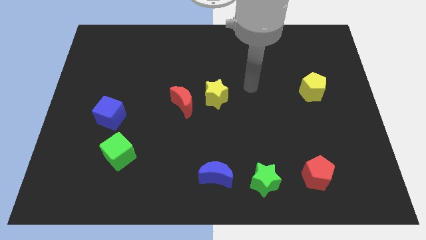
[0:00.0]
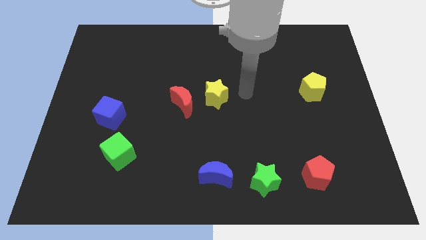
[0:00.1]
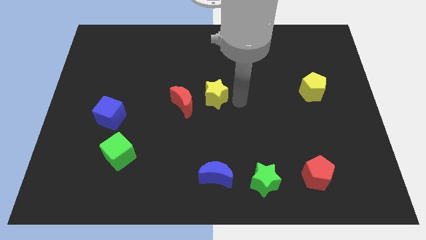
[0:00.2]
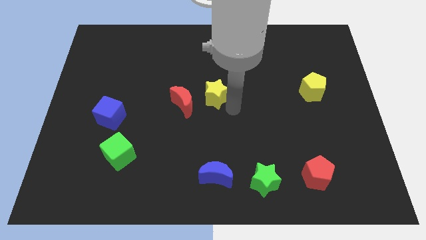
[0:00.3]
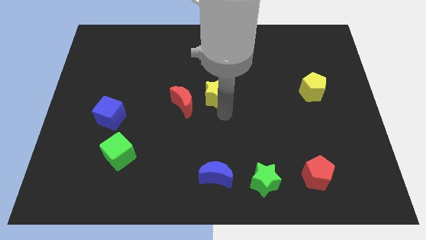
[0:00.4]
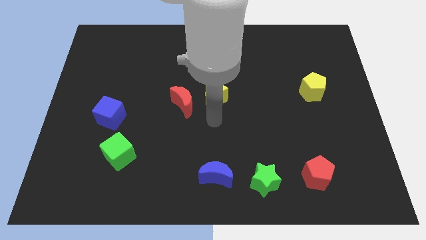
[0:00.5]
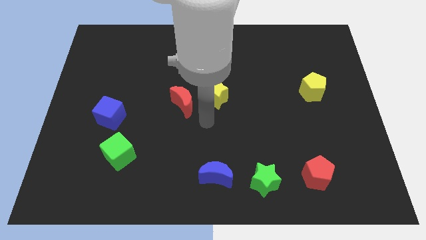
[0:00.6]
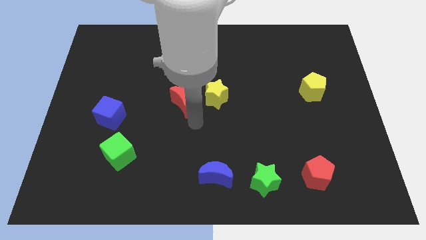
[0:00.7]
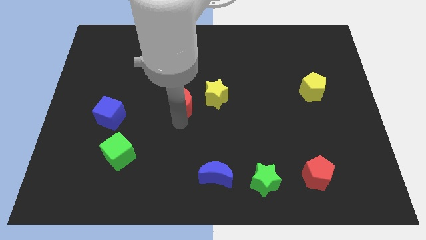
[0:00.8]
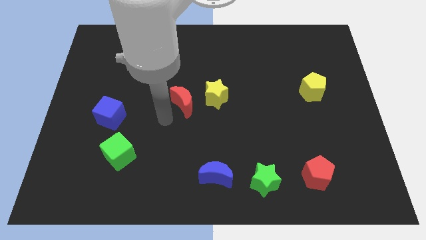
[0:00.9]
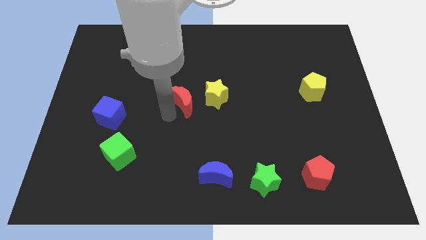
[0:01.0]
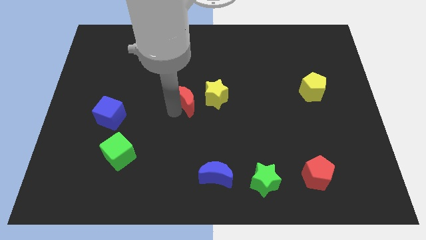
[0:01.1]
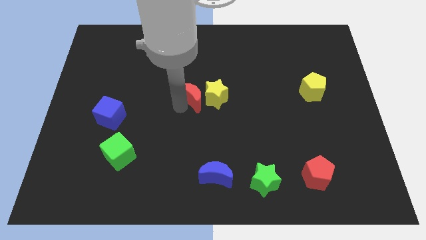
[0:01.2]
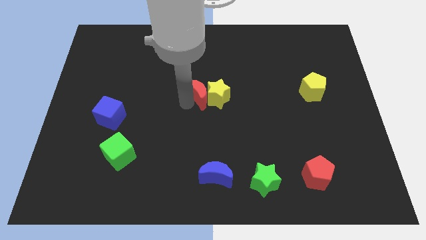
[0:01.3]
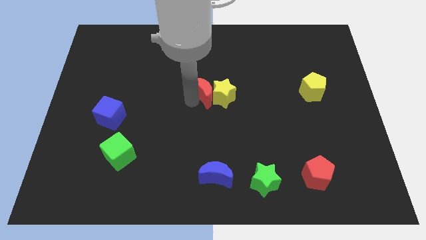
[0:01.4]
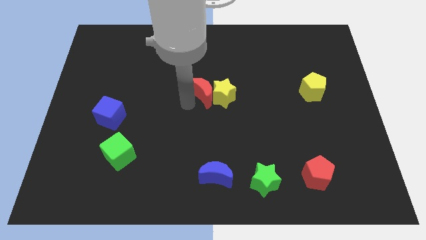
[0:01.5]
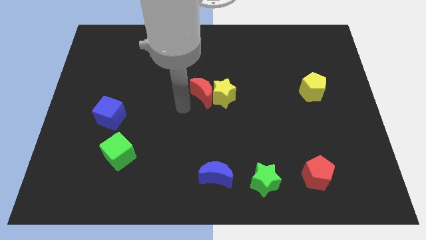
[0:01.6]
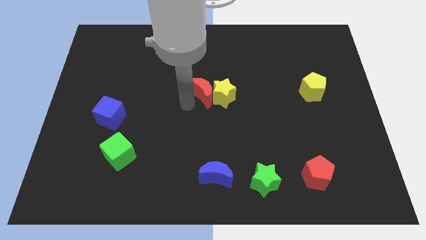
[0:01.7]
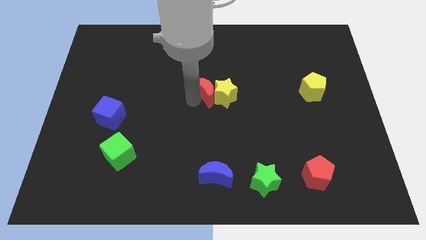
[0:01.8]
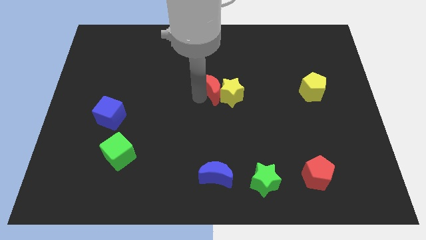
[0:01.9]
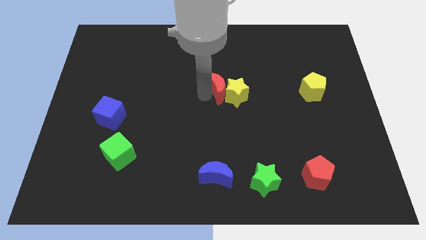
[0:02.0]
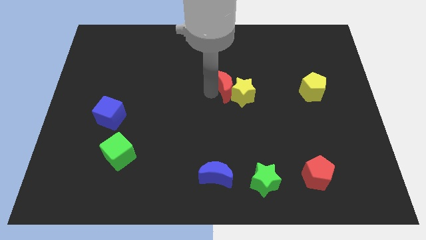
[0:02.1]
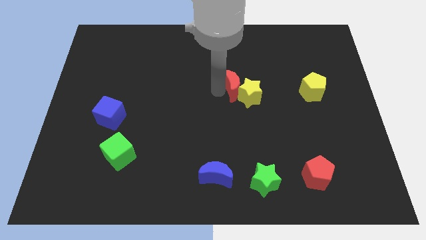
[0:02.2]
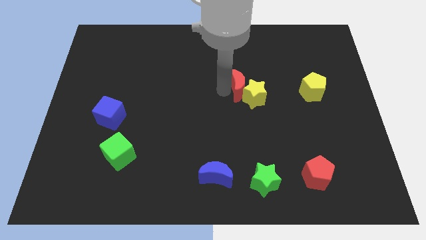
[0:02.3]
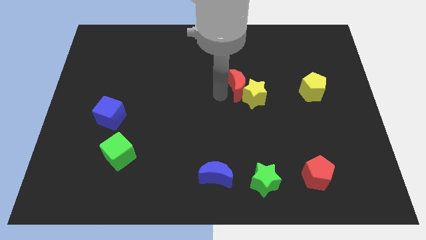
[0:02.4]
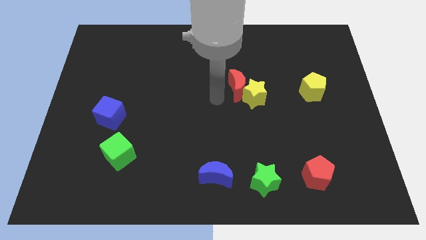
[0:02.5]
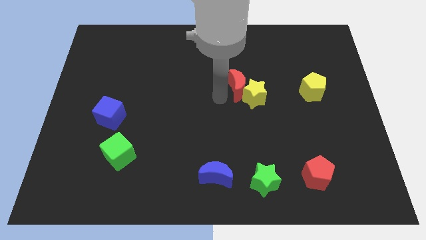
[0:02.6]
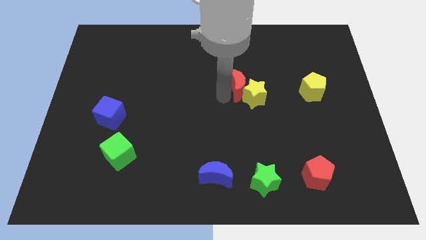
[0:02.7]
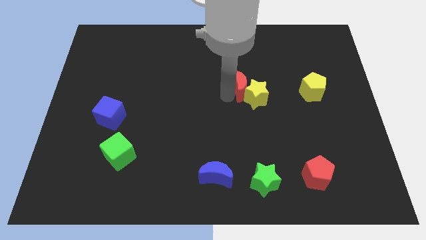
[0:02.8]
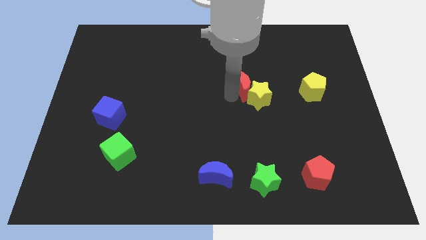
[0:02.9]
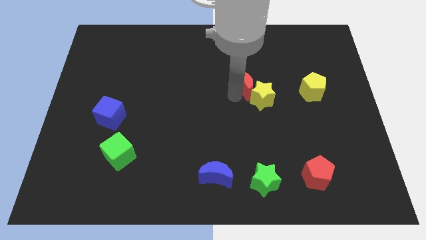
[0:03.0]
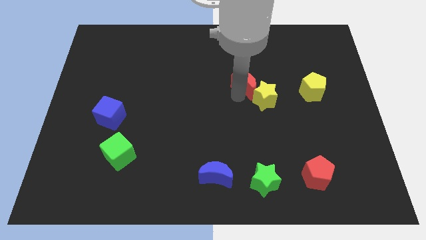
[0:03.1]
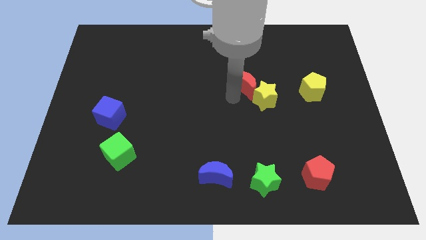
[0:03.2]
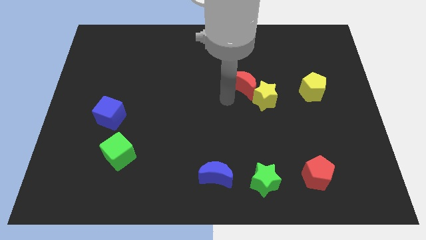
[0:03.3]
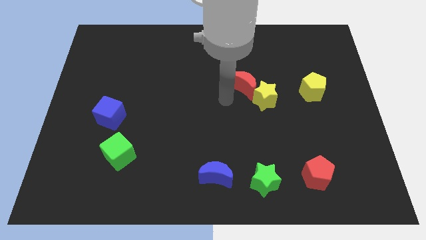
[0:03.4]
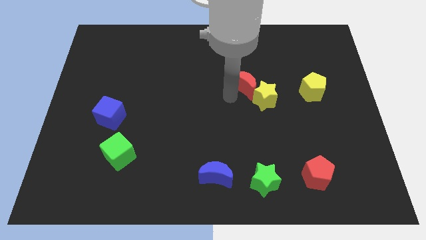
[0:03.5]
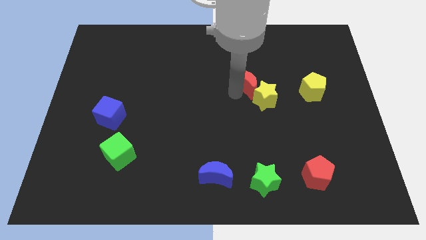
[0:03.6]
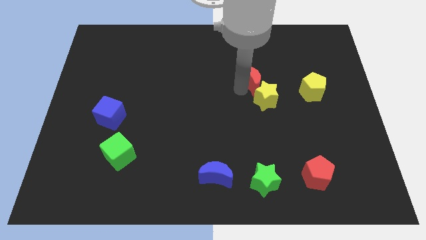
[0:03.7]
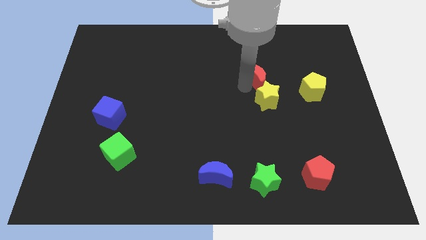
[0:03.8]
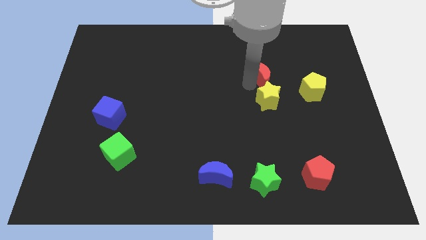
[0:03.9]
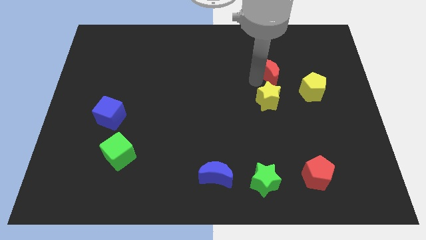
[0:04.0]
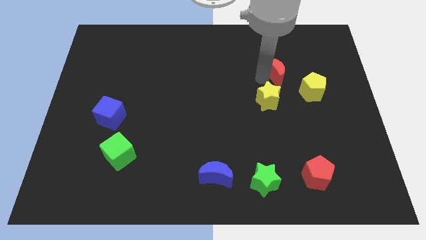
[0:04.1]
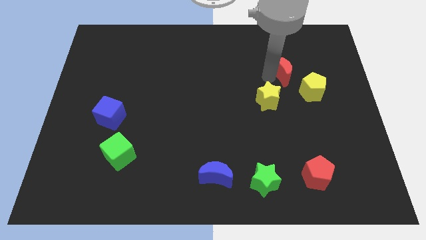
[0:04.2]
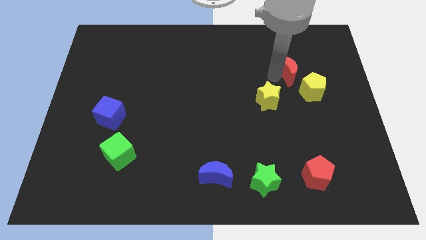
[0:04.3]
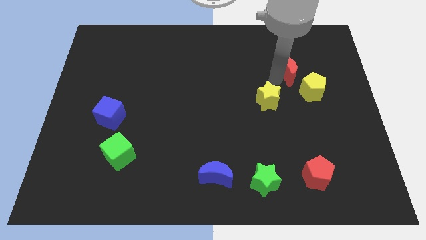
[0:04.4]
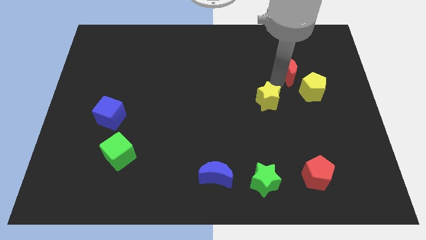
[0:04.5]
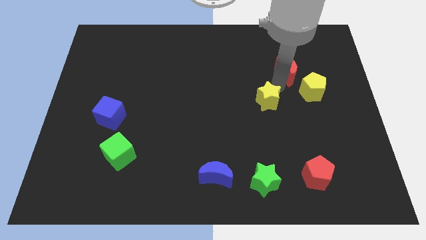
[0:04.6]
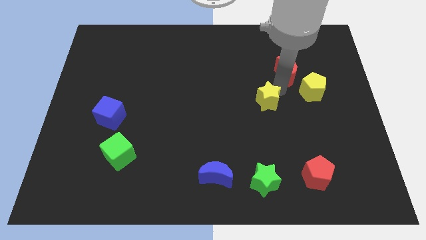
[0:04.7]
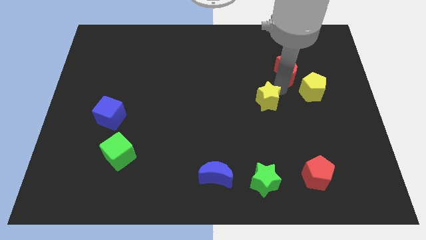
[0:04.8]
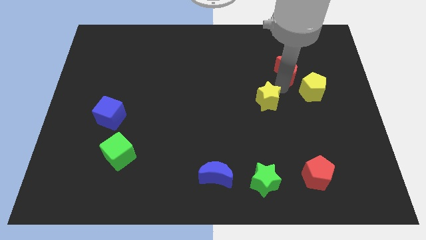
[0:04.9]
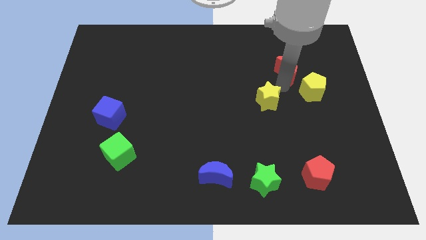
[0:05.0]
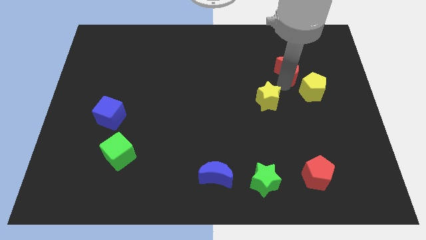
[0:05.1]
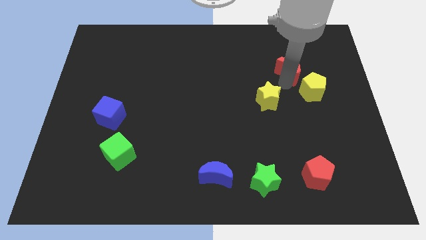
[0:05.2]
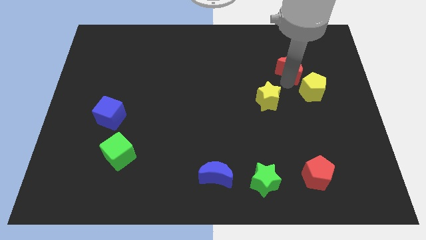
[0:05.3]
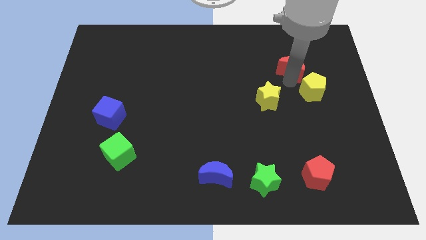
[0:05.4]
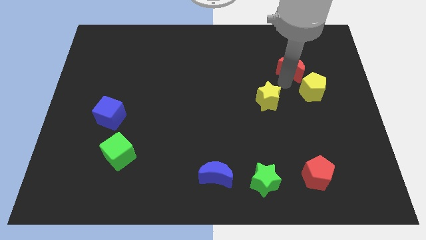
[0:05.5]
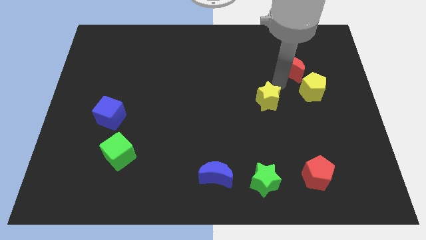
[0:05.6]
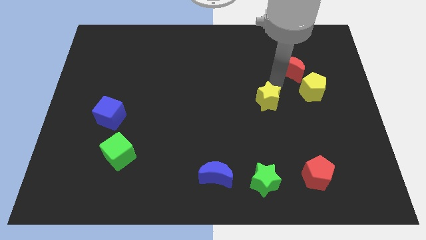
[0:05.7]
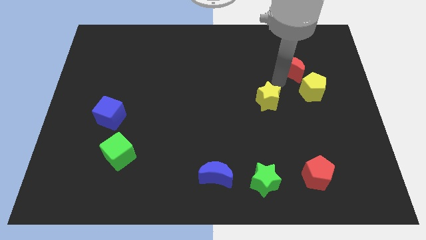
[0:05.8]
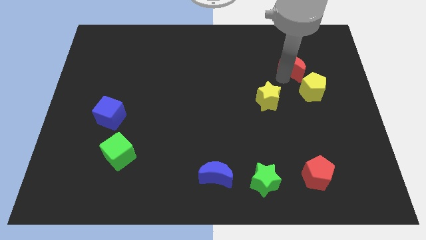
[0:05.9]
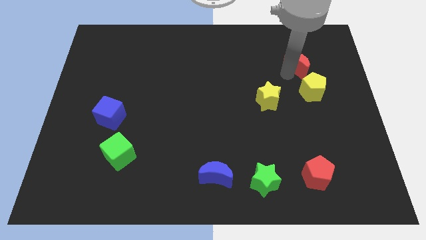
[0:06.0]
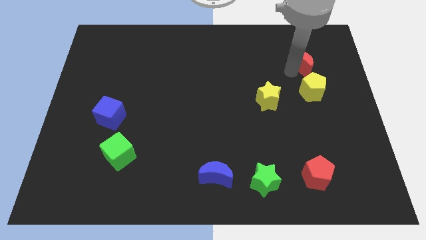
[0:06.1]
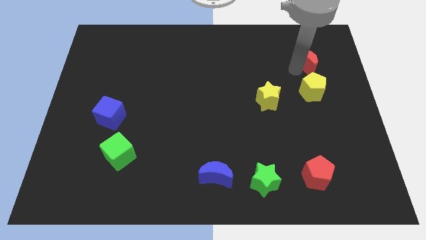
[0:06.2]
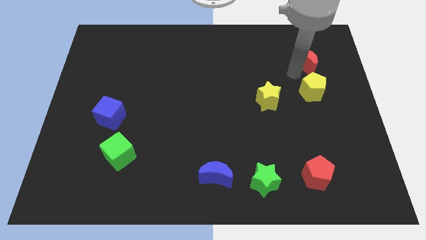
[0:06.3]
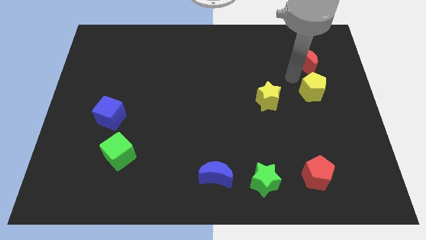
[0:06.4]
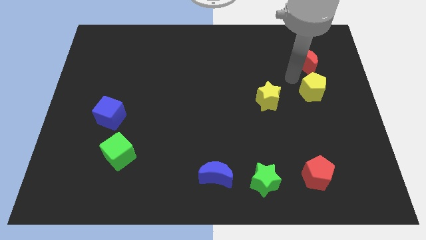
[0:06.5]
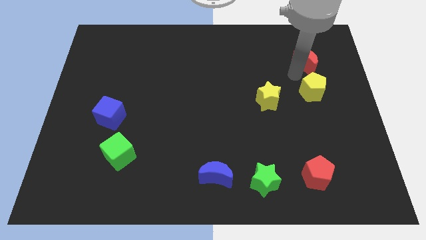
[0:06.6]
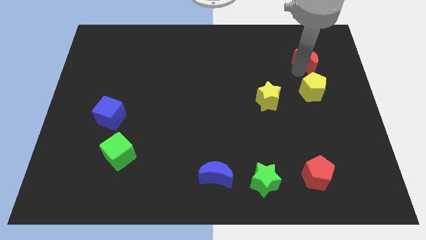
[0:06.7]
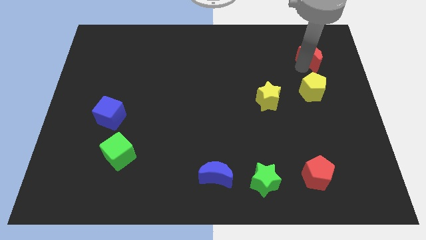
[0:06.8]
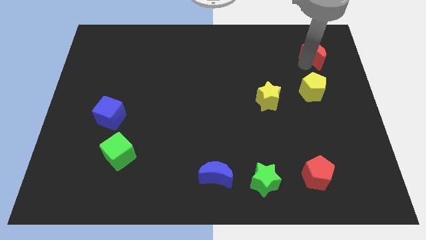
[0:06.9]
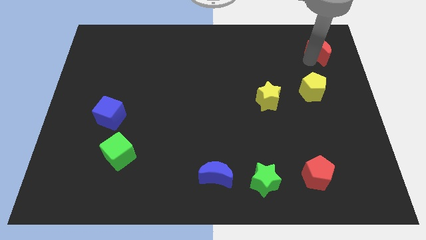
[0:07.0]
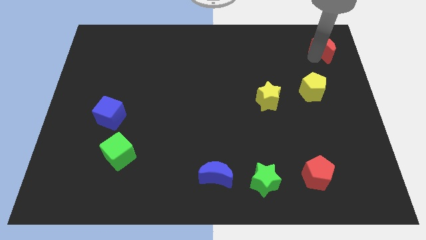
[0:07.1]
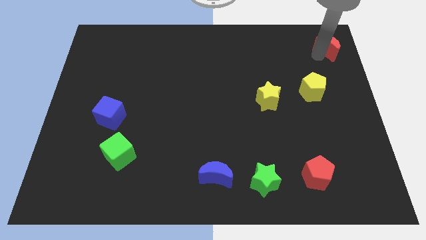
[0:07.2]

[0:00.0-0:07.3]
slide the red moon to the top right
